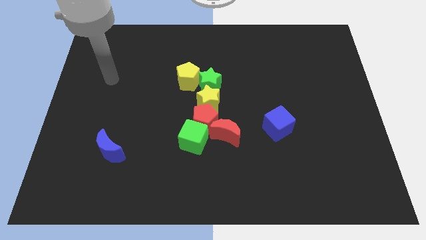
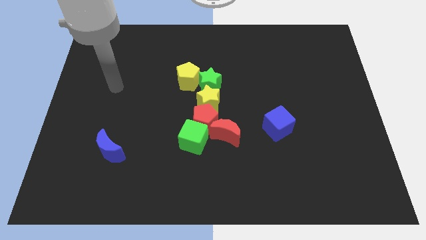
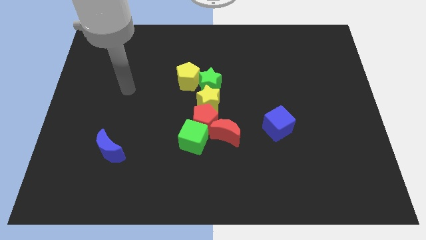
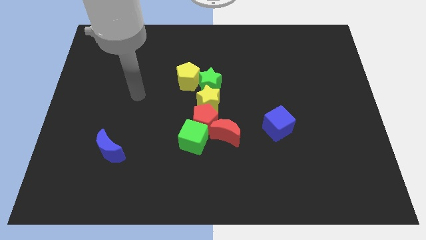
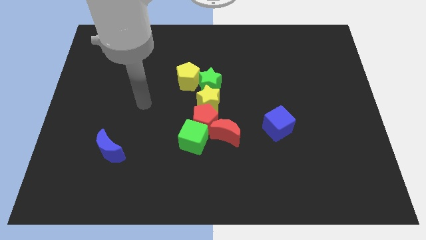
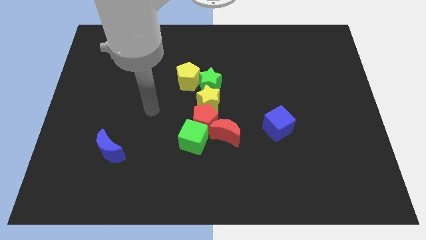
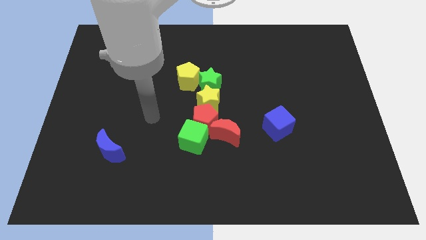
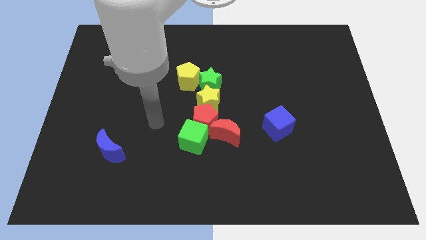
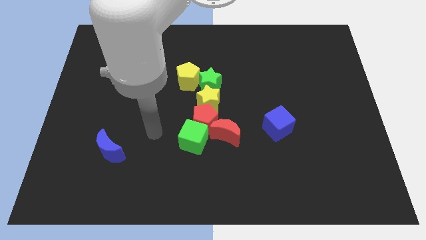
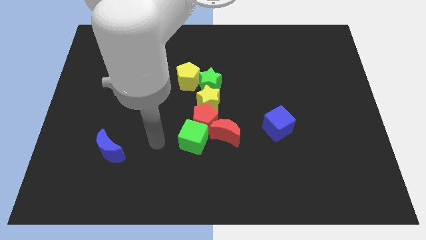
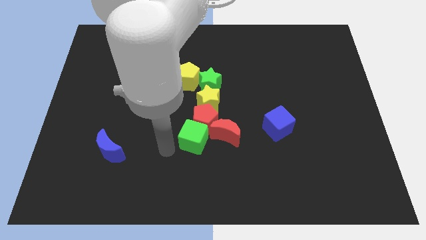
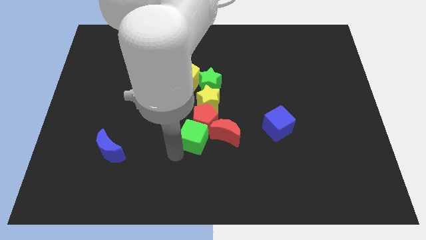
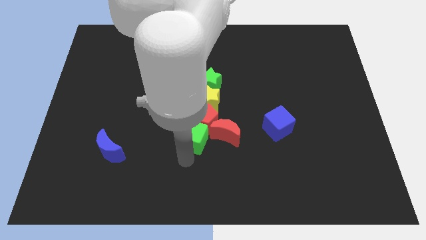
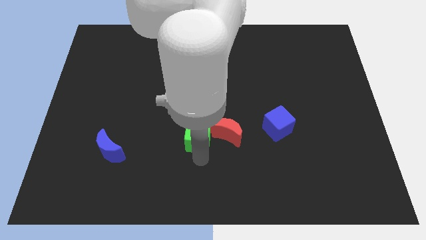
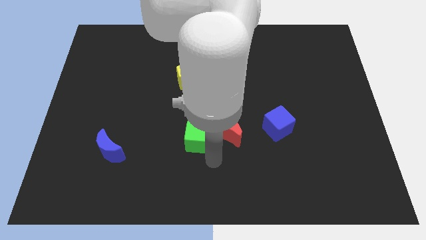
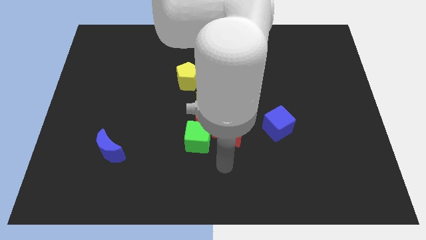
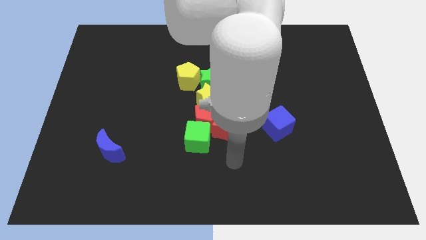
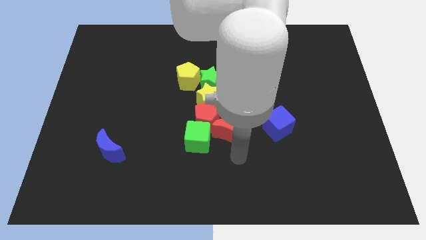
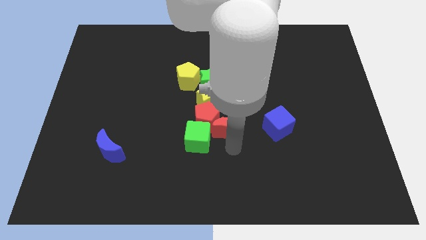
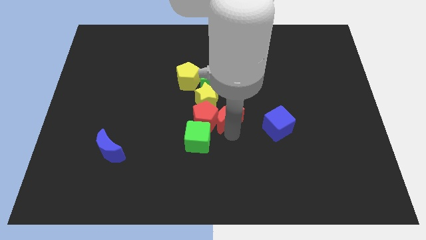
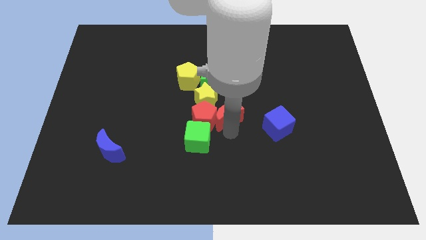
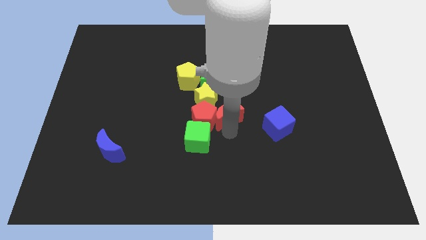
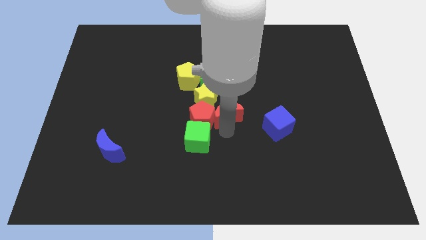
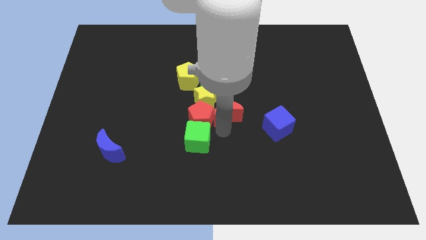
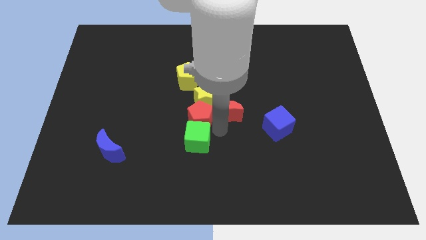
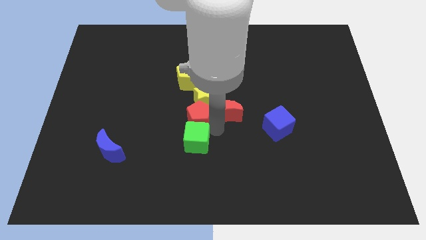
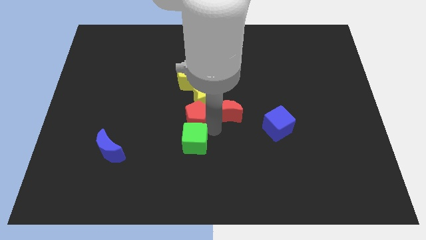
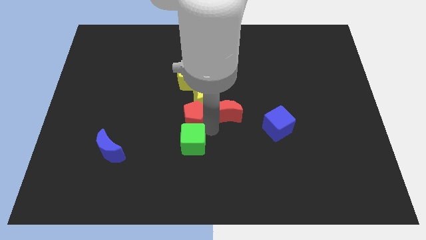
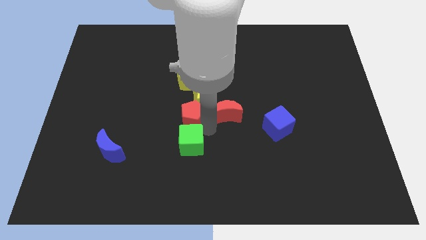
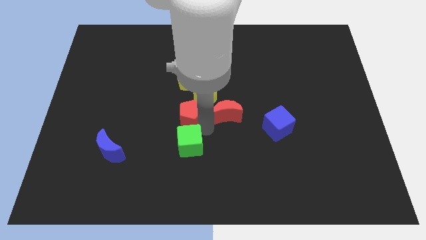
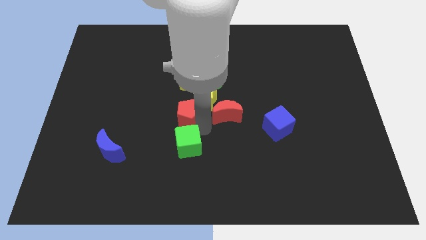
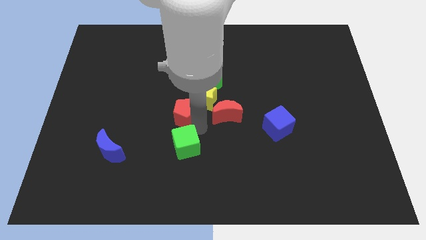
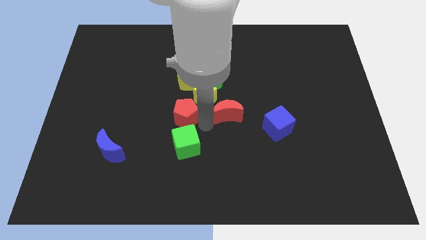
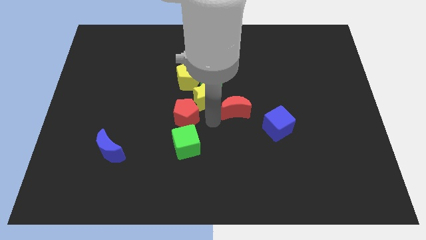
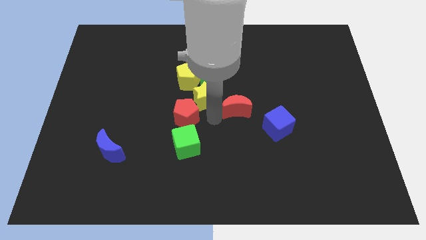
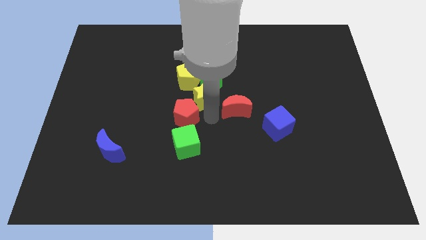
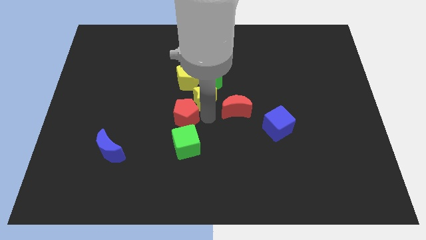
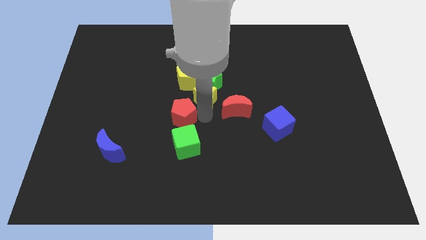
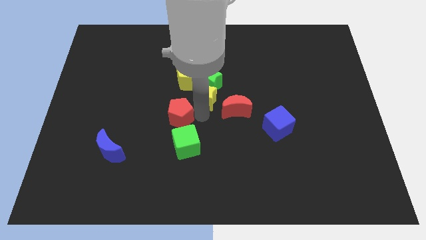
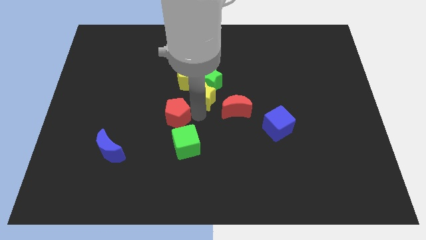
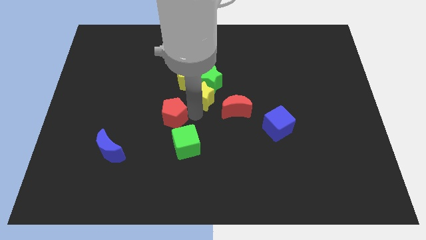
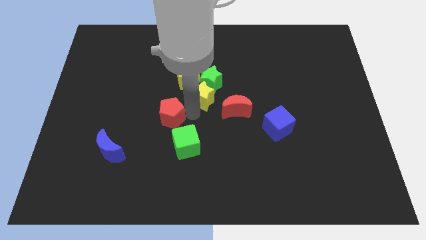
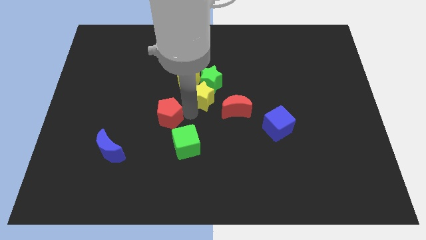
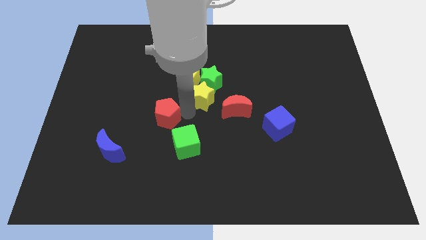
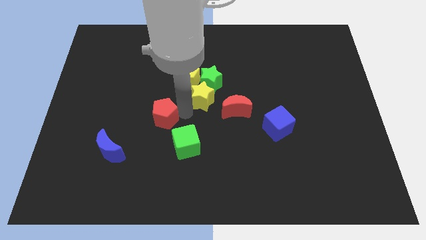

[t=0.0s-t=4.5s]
move the red pentagon away from the green cube, yellow star, and red moon

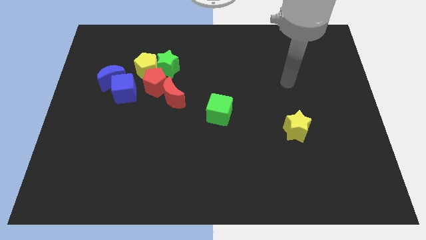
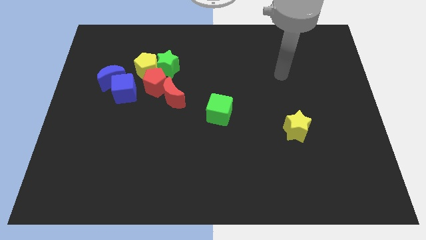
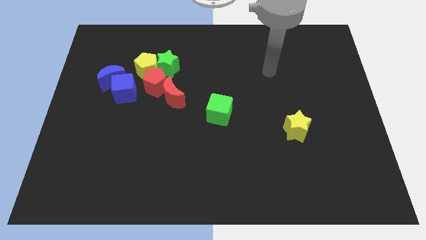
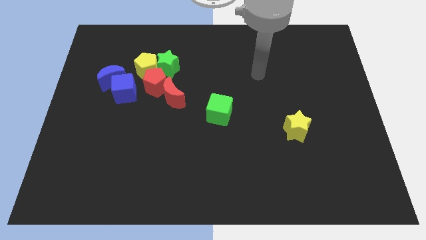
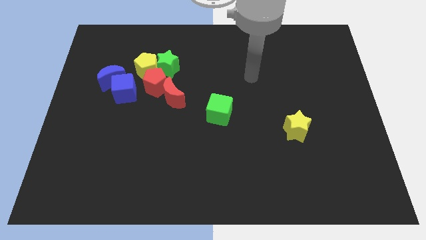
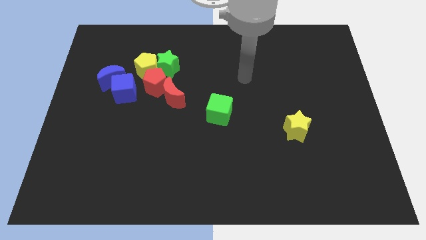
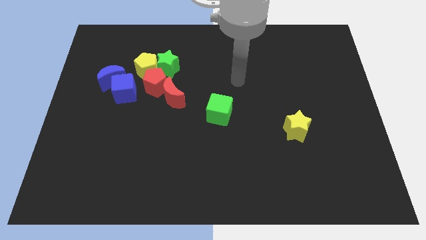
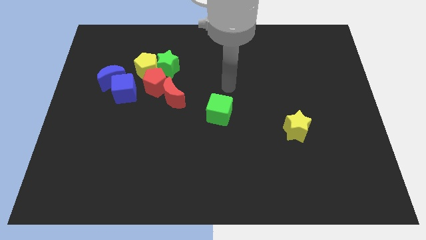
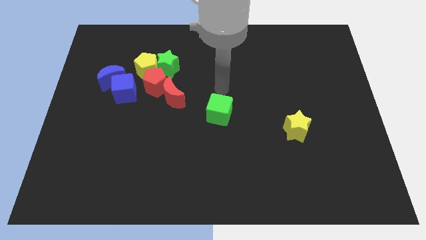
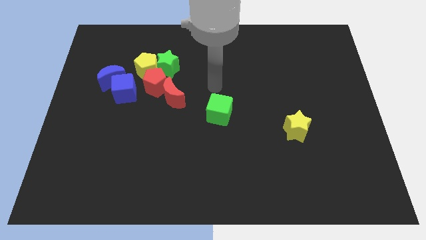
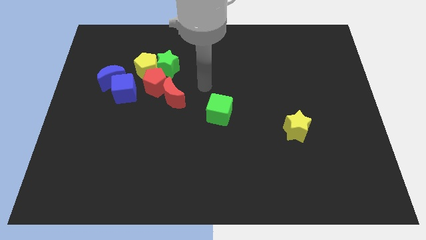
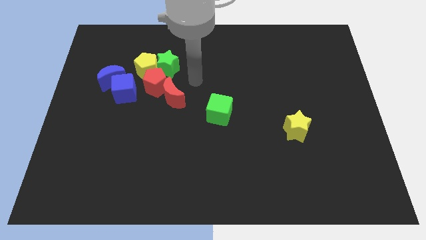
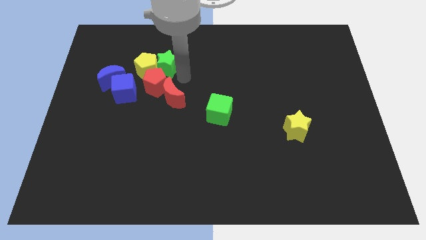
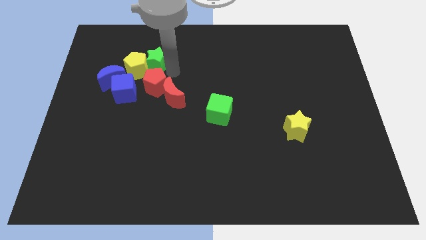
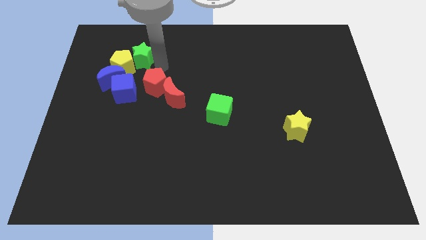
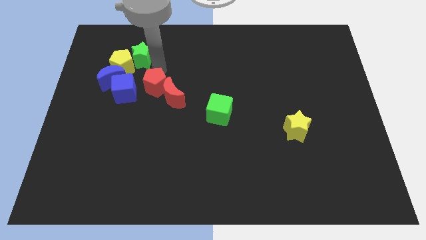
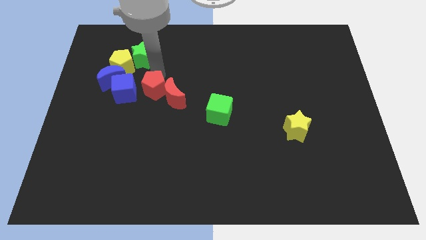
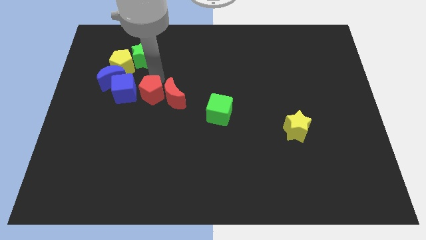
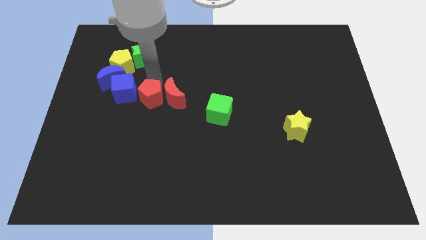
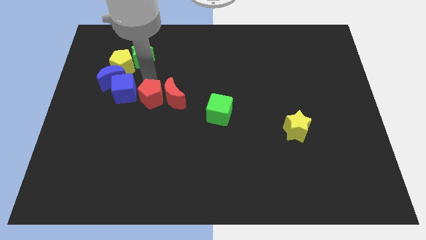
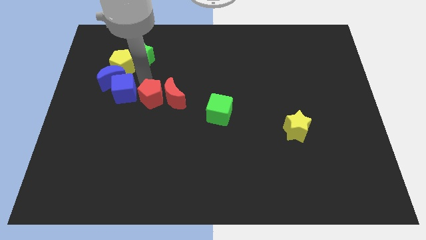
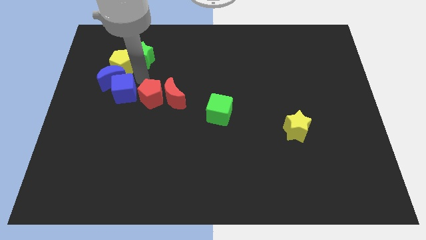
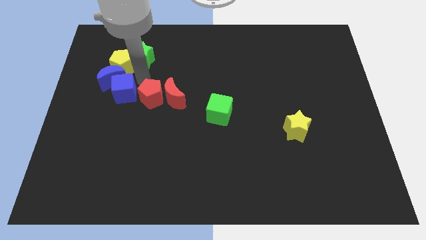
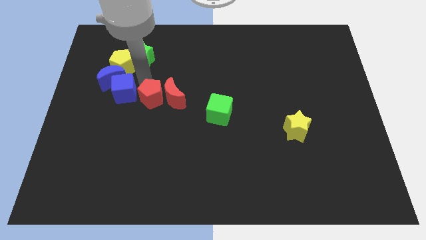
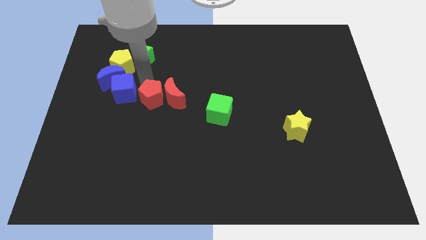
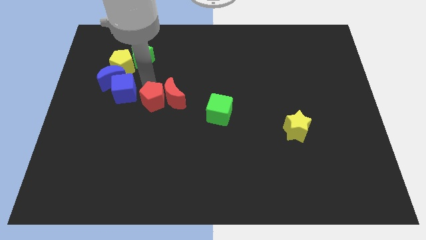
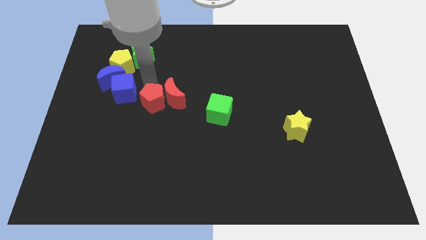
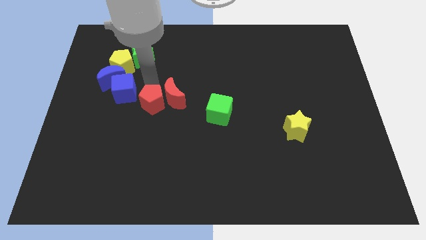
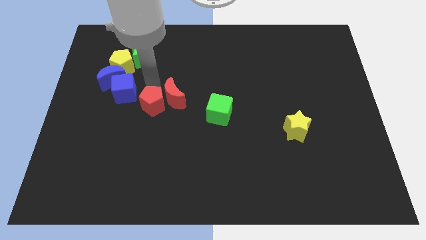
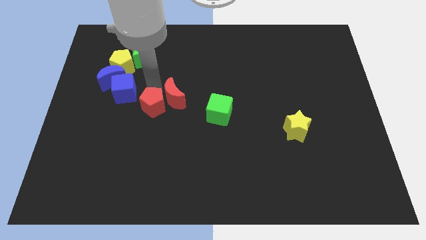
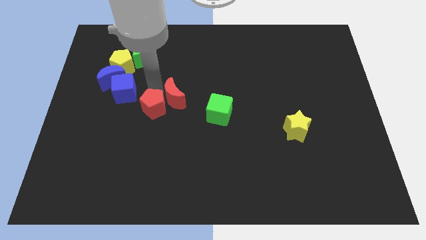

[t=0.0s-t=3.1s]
pull the red pentagon apart from the group of blocks

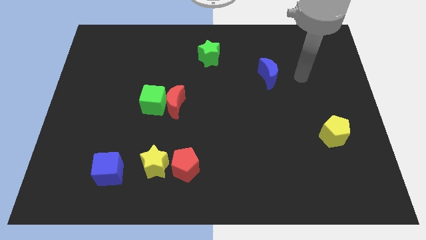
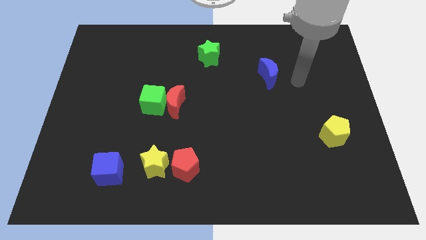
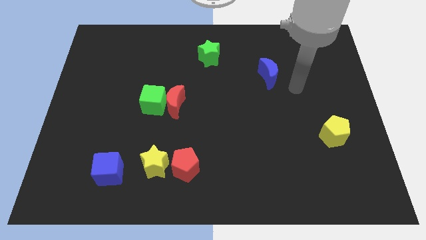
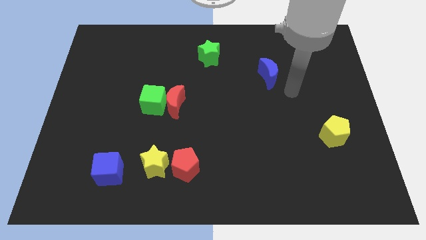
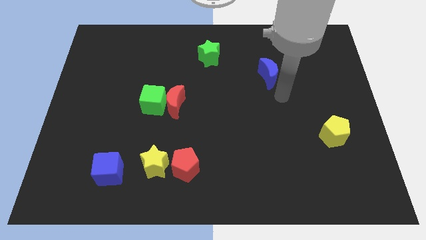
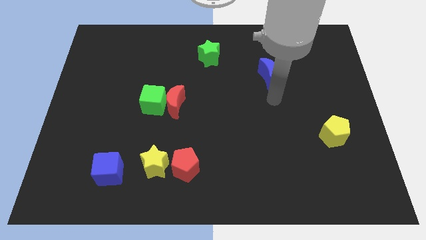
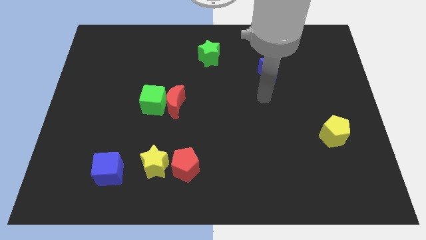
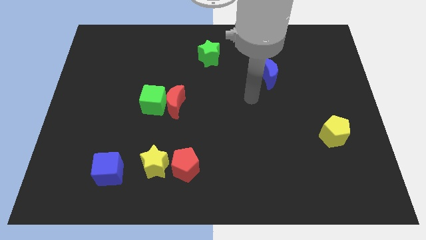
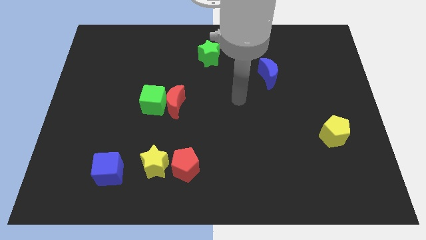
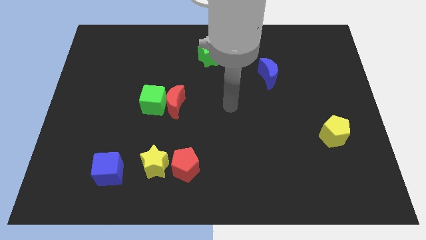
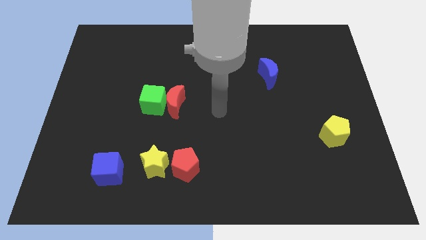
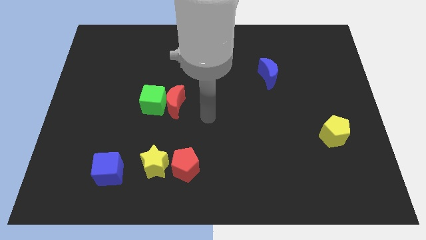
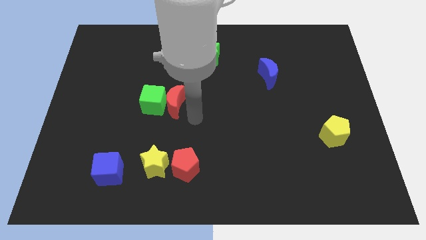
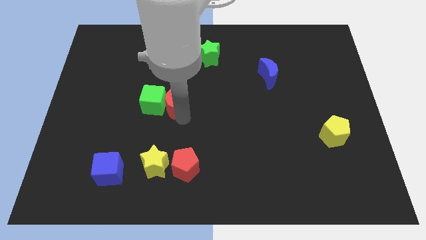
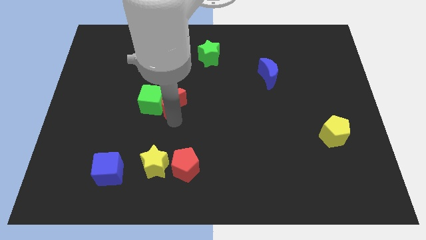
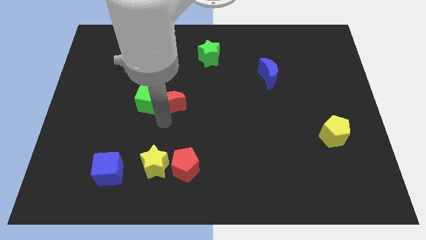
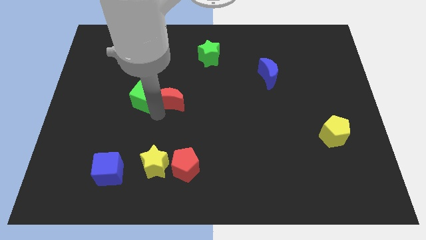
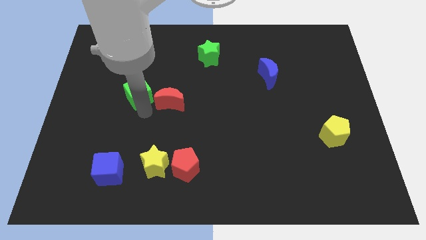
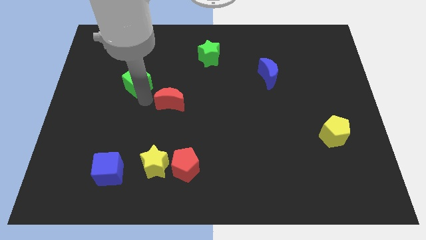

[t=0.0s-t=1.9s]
separate the red moon from the green cube
